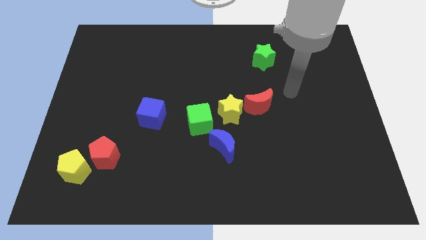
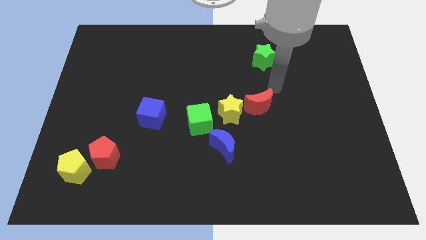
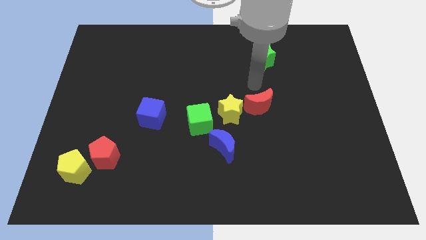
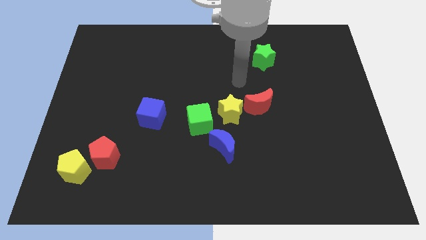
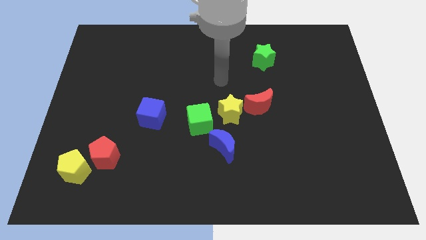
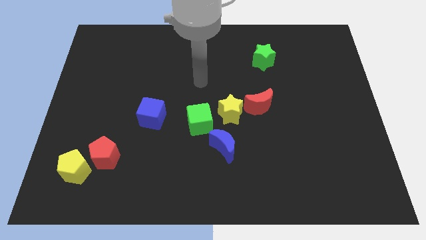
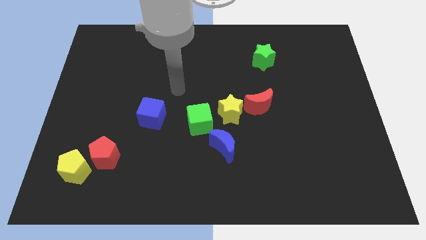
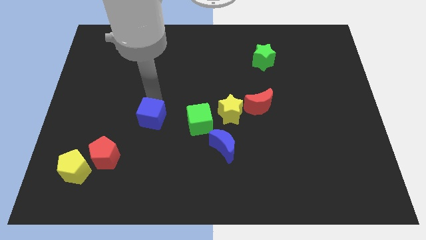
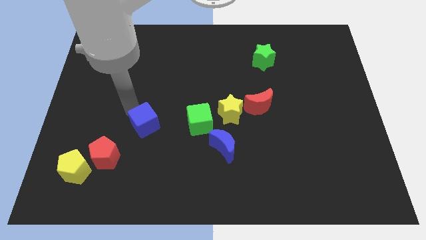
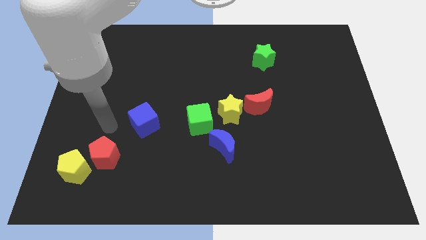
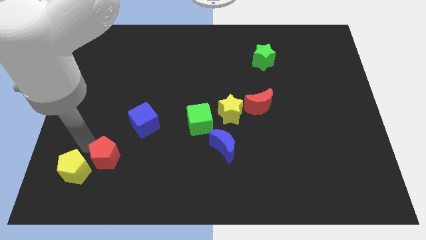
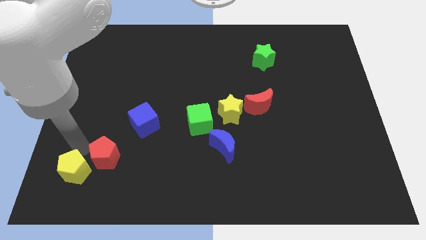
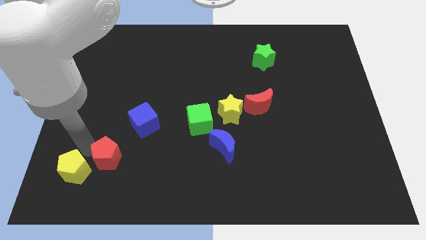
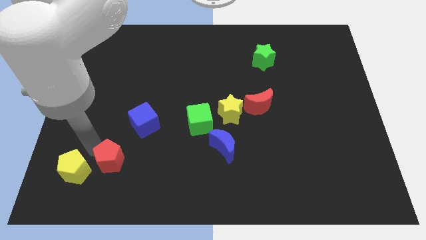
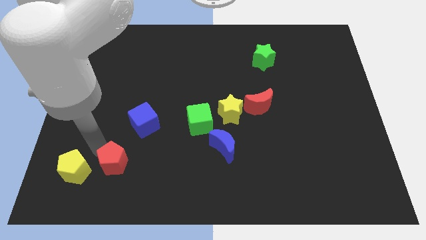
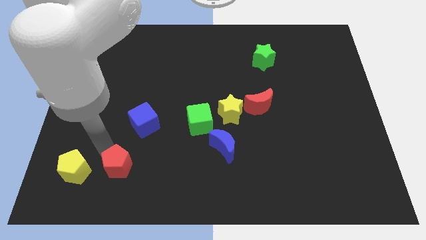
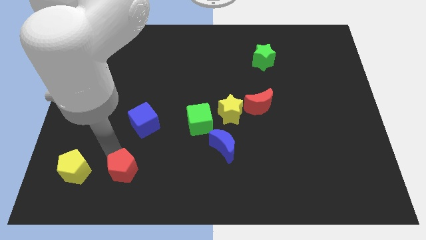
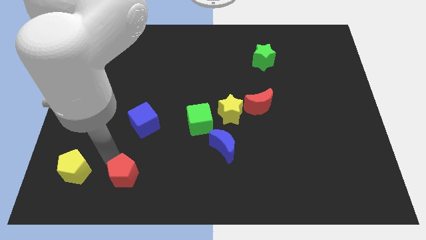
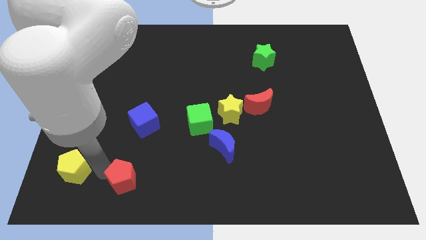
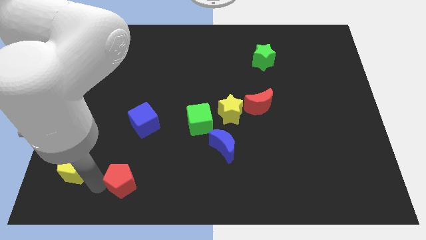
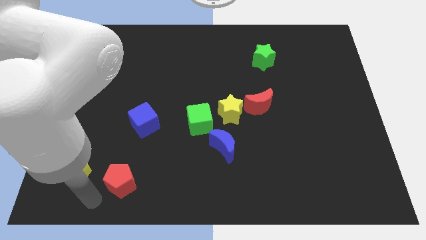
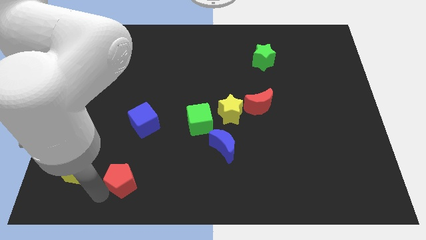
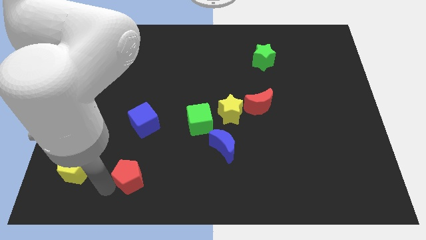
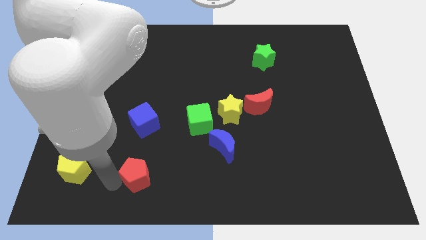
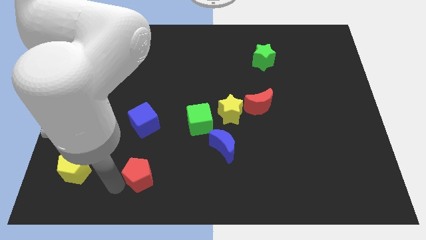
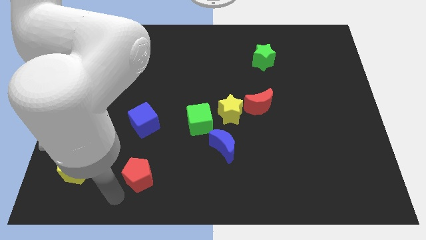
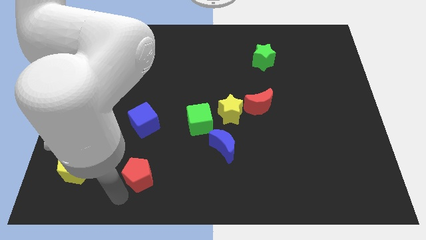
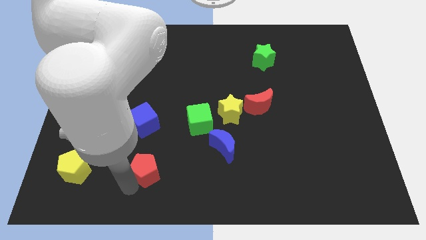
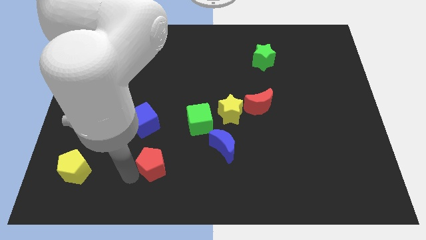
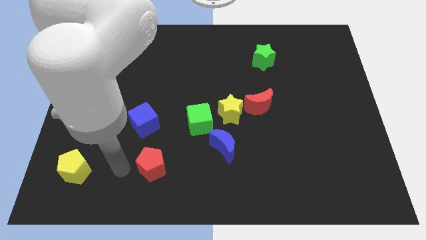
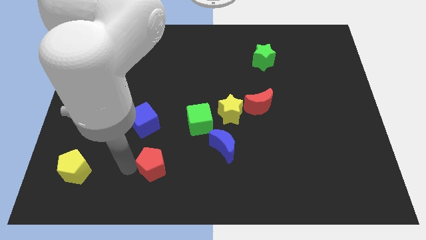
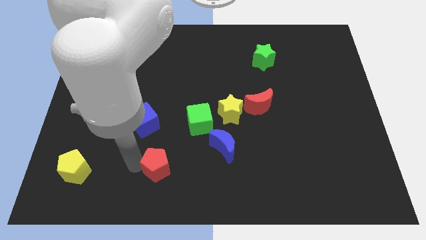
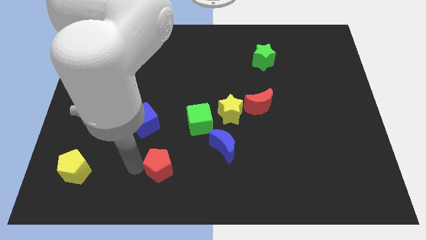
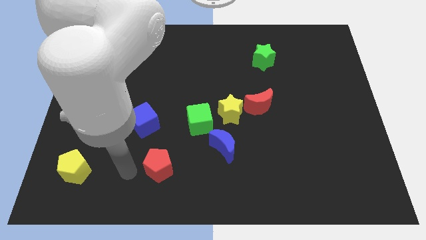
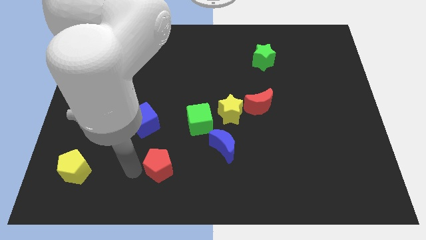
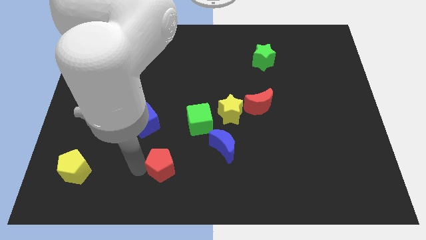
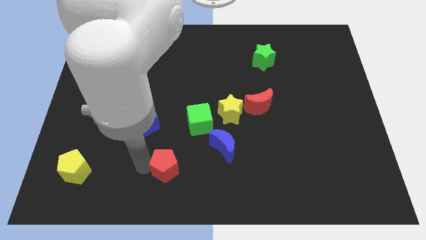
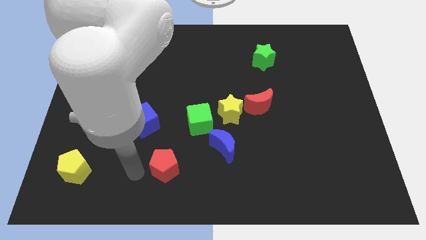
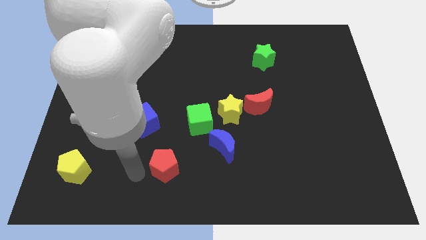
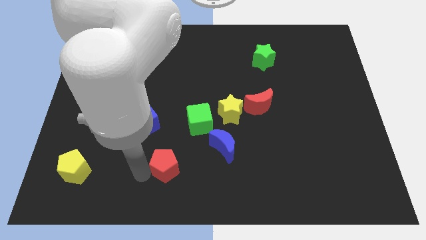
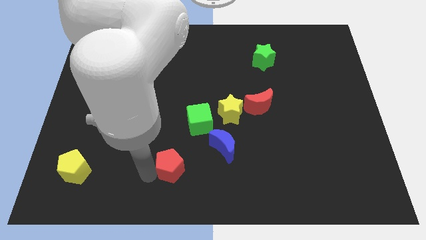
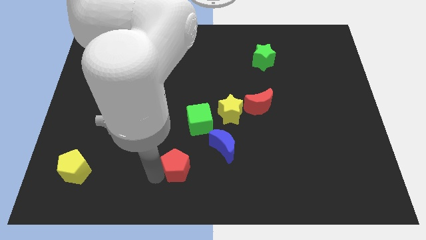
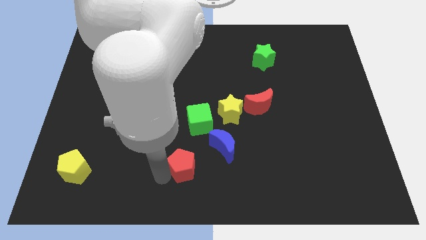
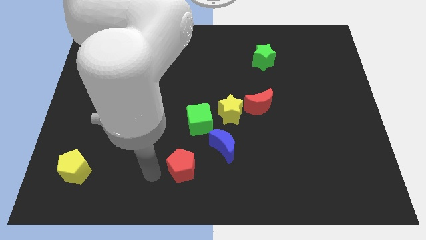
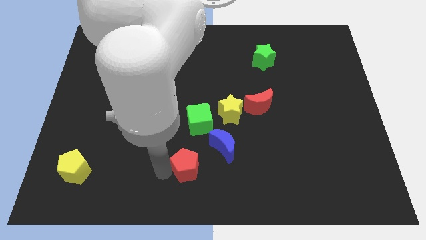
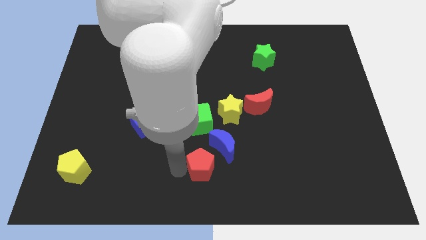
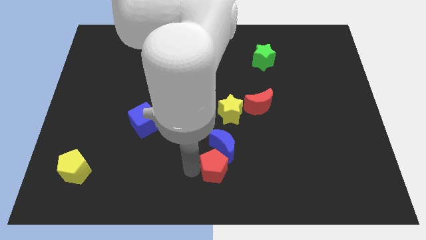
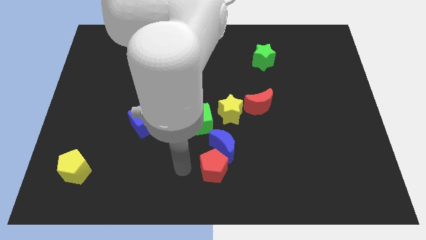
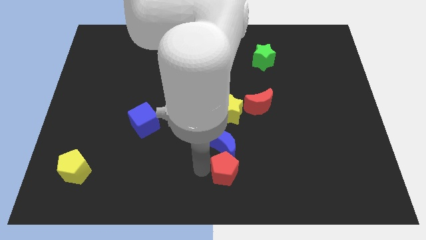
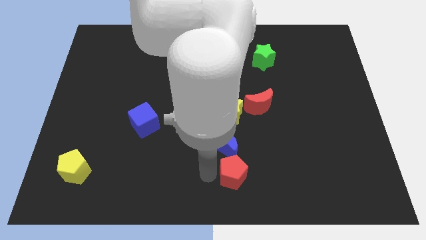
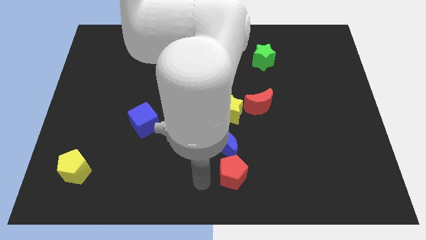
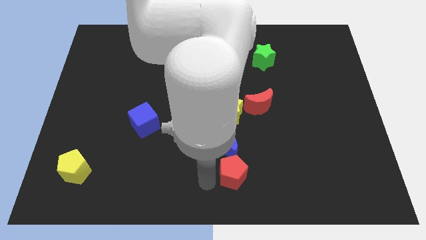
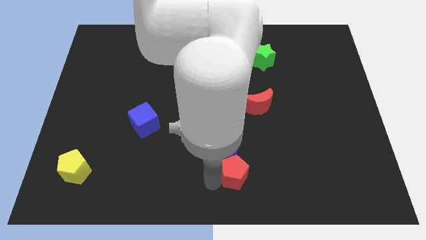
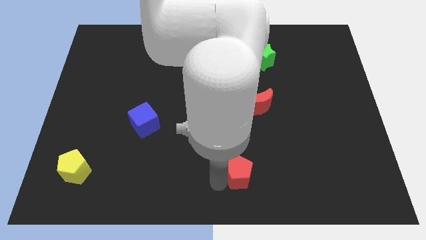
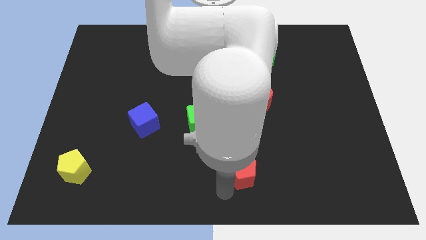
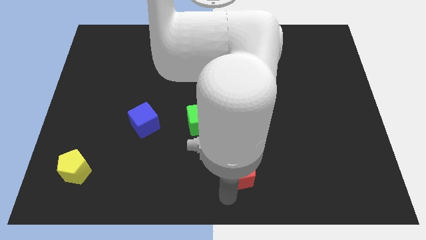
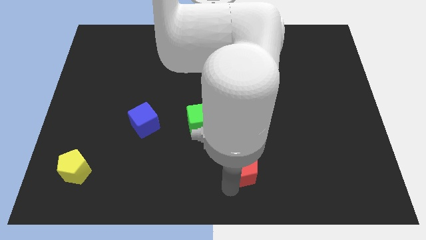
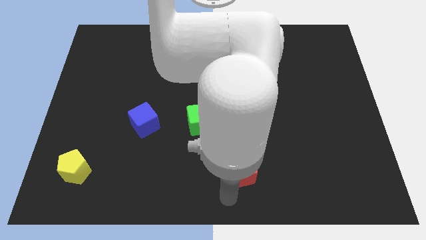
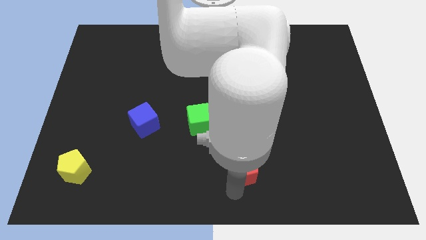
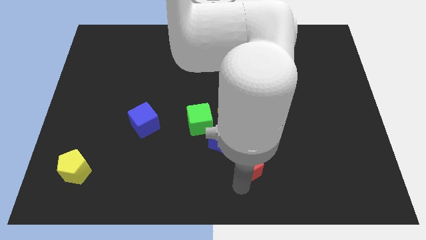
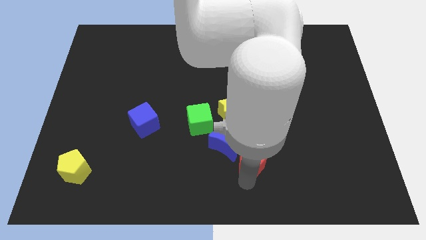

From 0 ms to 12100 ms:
push the red pentagon below the red moon
